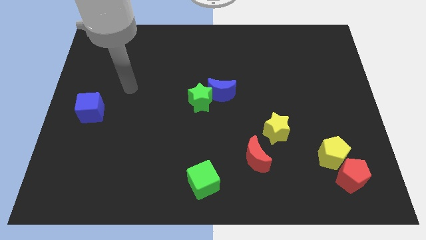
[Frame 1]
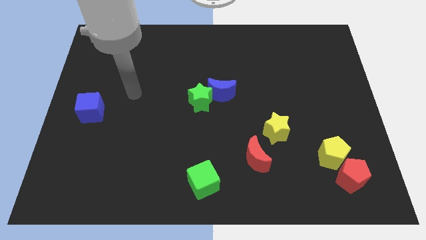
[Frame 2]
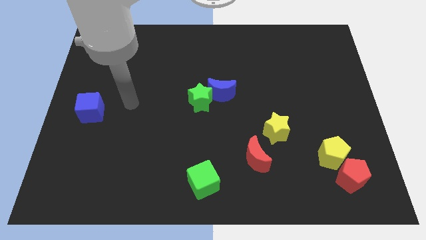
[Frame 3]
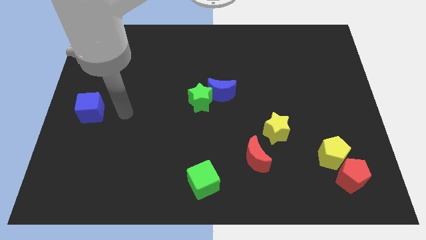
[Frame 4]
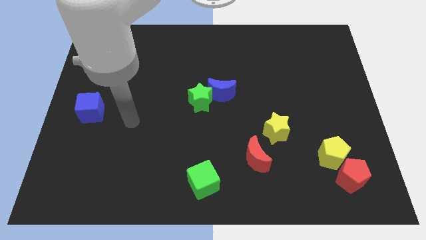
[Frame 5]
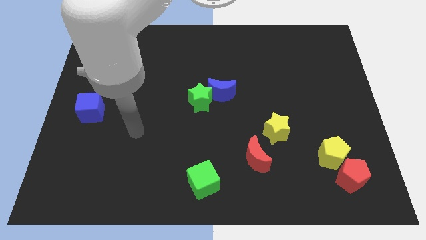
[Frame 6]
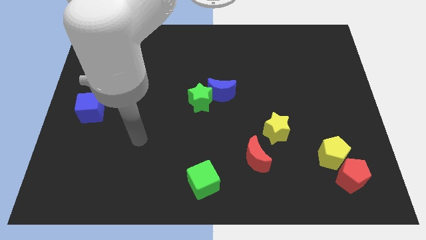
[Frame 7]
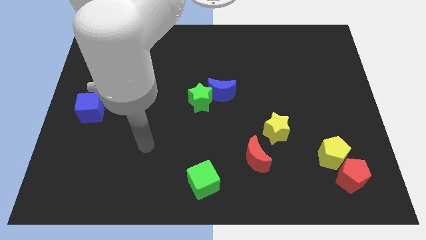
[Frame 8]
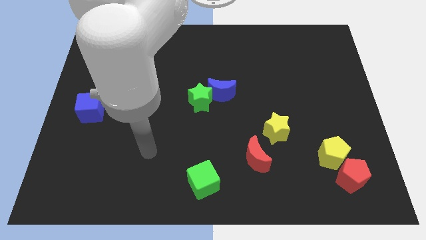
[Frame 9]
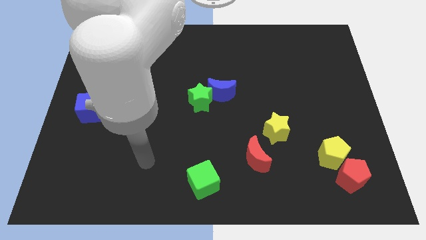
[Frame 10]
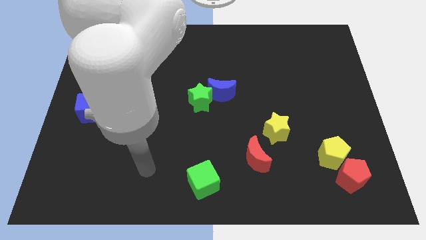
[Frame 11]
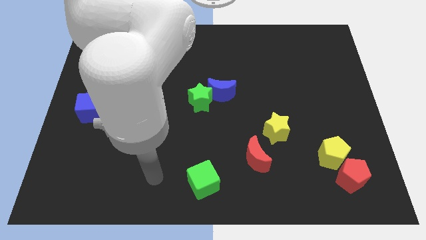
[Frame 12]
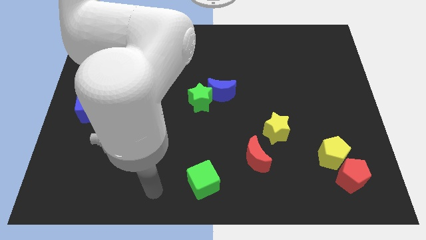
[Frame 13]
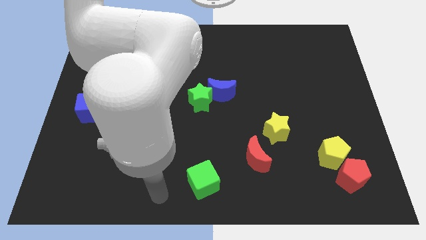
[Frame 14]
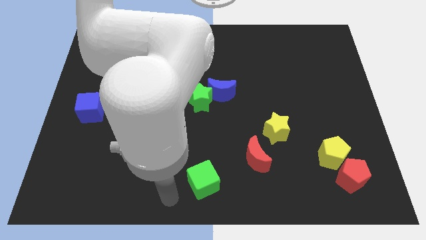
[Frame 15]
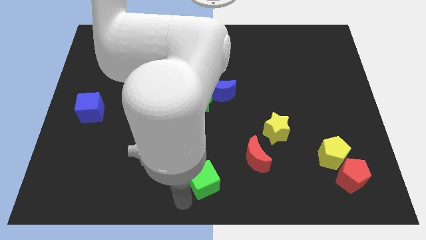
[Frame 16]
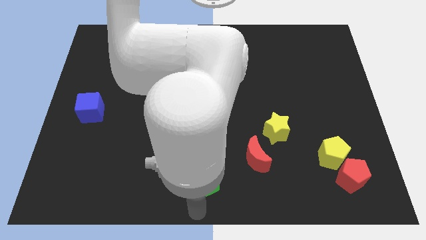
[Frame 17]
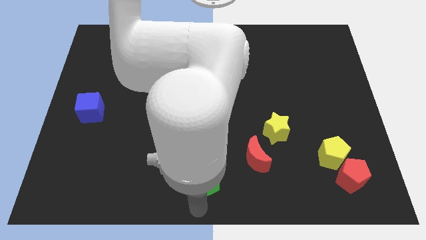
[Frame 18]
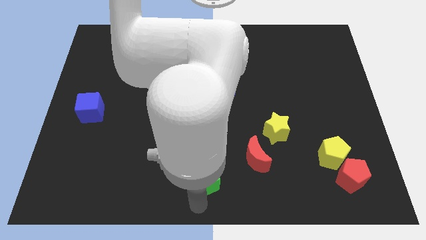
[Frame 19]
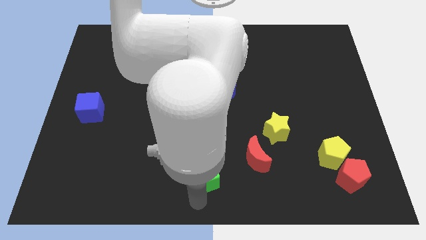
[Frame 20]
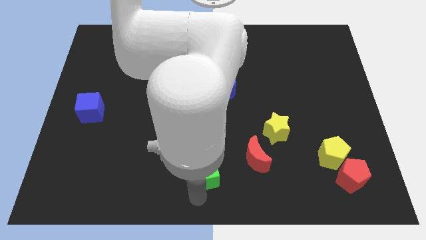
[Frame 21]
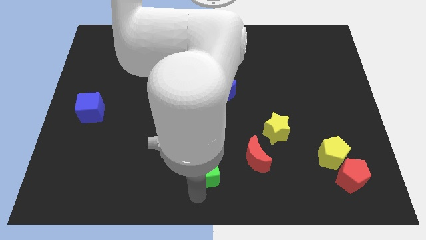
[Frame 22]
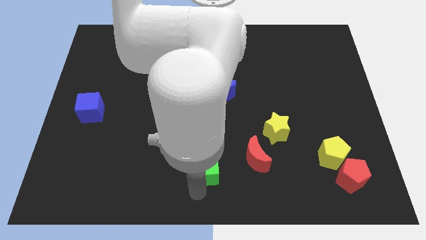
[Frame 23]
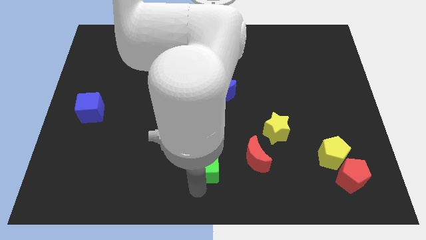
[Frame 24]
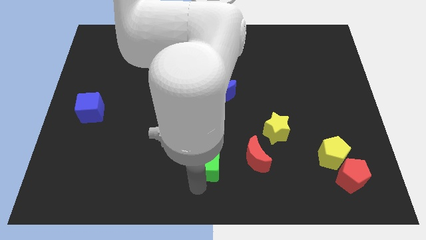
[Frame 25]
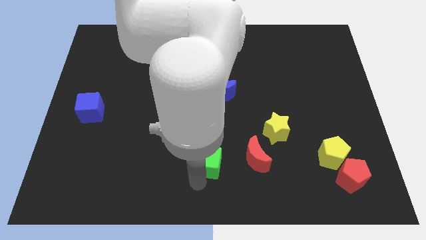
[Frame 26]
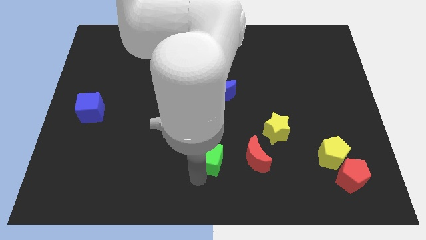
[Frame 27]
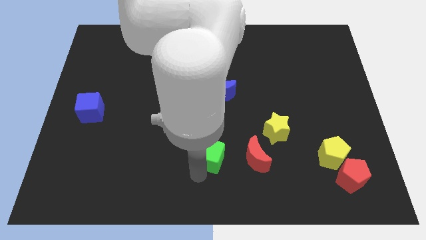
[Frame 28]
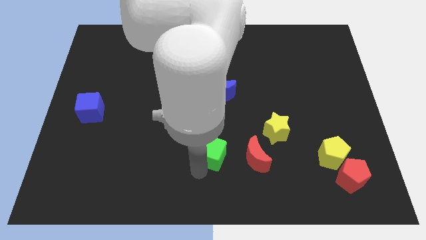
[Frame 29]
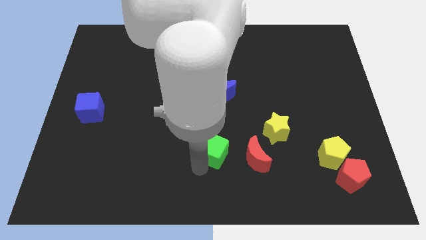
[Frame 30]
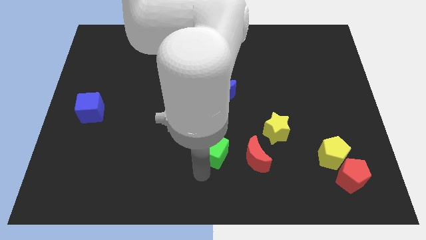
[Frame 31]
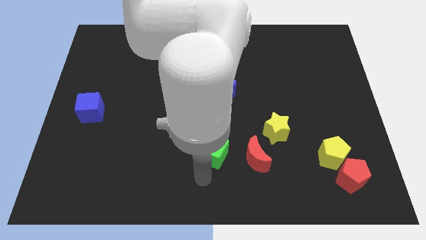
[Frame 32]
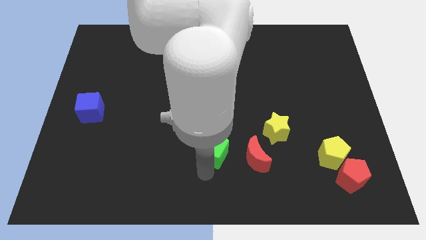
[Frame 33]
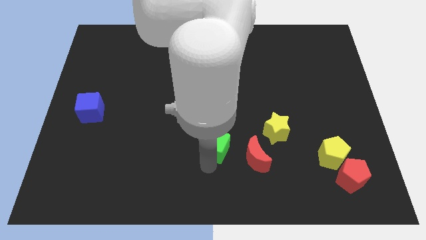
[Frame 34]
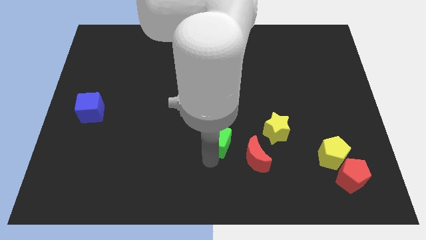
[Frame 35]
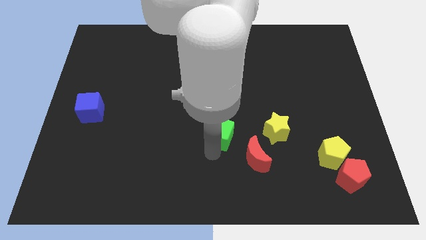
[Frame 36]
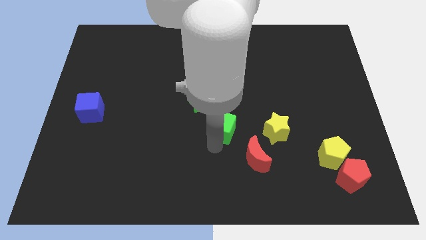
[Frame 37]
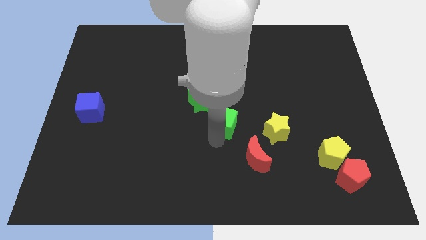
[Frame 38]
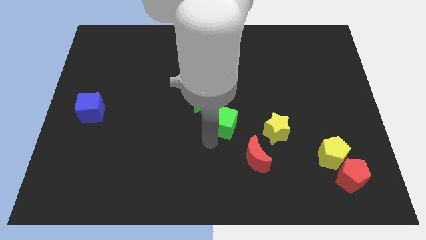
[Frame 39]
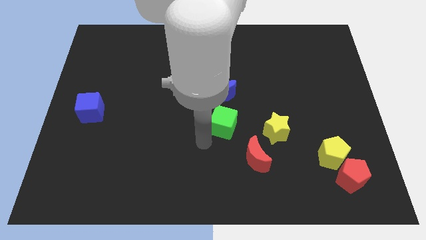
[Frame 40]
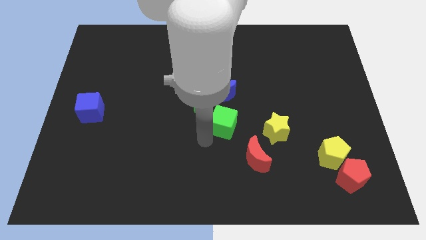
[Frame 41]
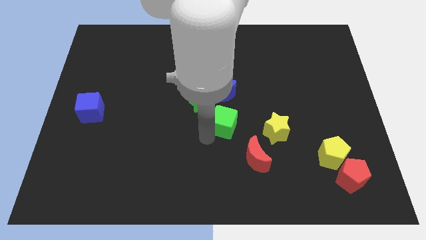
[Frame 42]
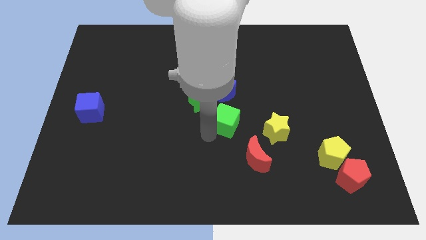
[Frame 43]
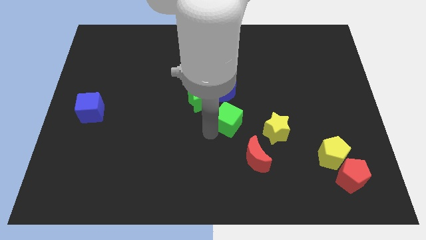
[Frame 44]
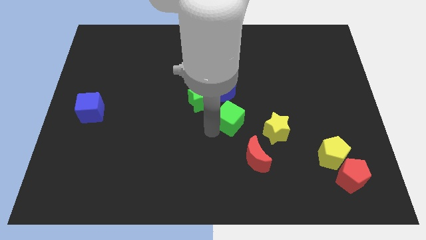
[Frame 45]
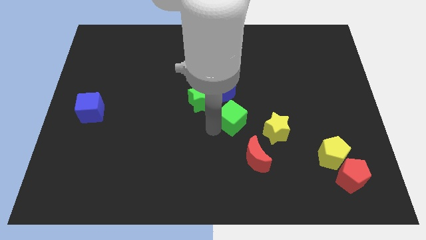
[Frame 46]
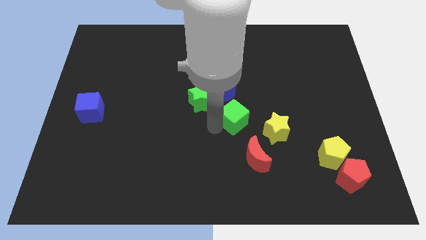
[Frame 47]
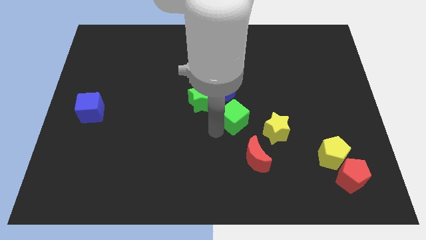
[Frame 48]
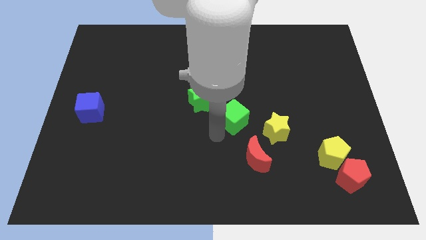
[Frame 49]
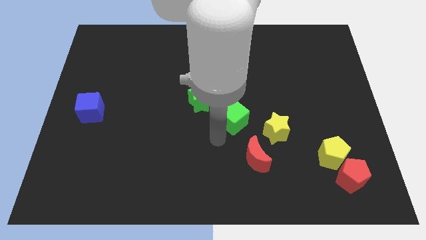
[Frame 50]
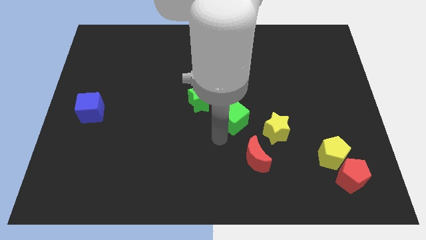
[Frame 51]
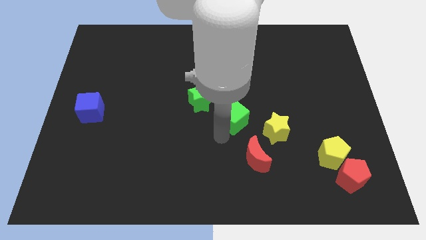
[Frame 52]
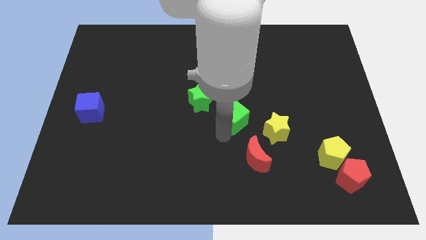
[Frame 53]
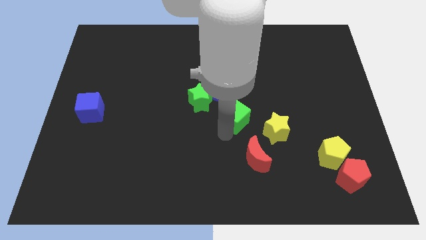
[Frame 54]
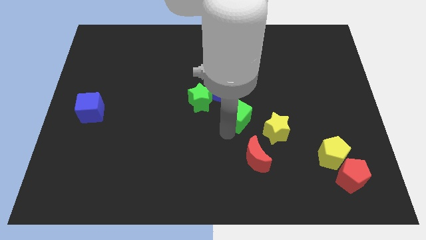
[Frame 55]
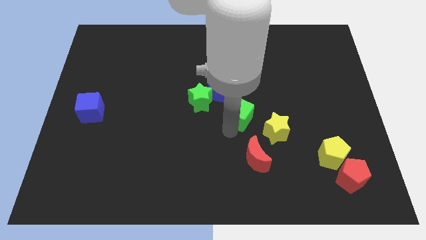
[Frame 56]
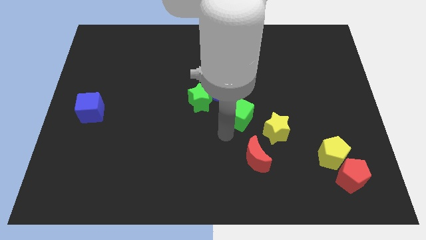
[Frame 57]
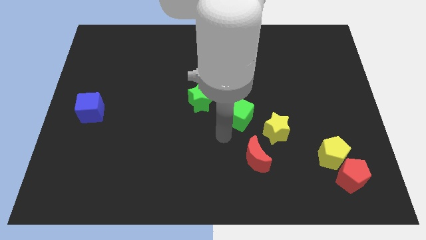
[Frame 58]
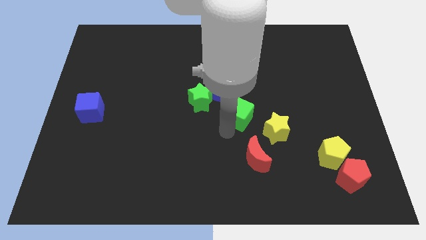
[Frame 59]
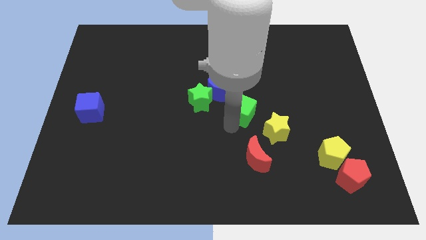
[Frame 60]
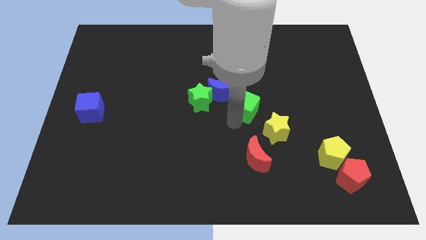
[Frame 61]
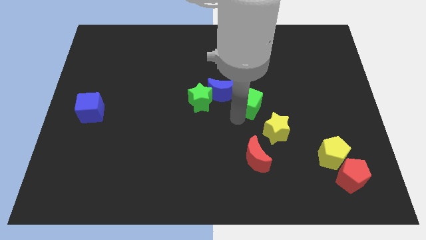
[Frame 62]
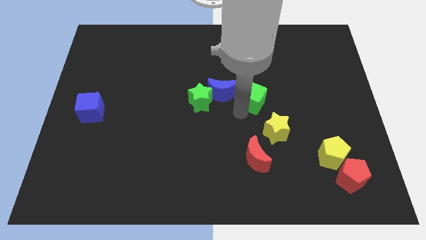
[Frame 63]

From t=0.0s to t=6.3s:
slide the green cube upwards and to the right

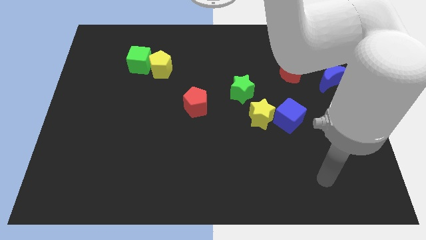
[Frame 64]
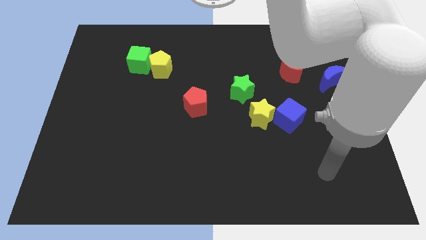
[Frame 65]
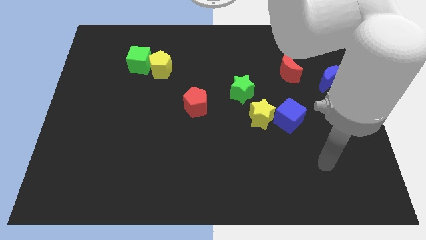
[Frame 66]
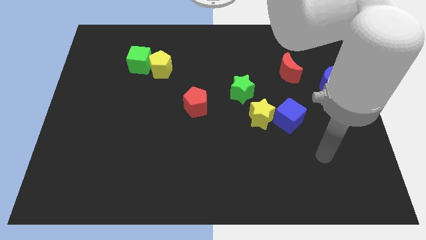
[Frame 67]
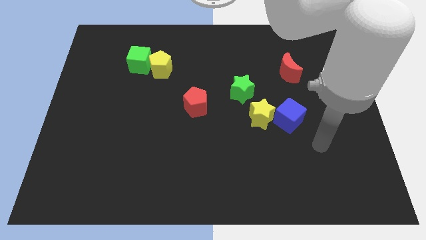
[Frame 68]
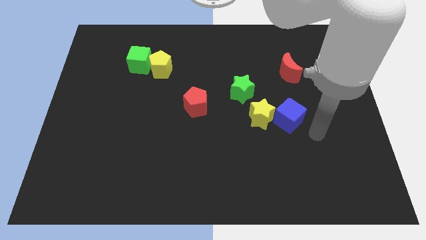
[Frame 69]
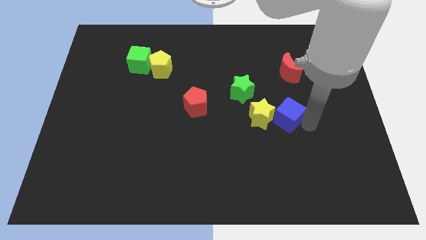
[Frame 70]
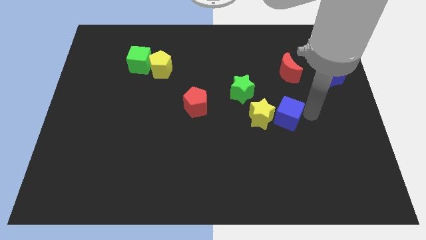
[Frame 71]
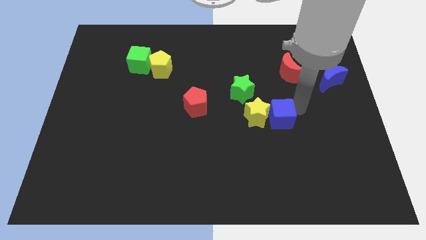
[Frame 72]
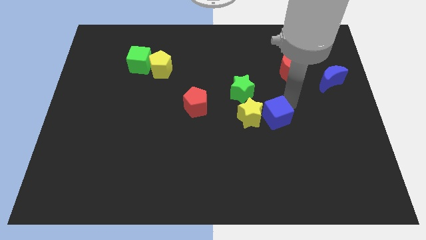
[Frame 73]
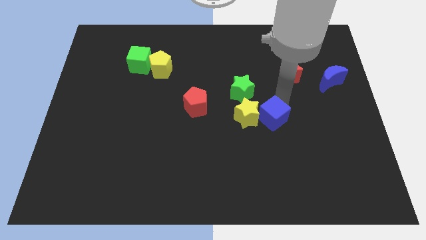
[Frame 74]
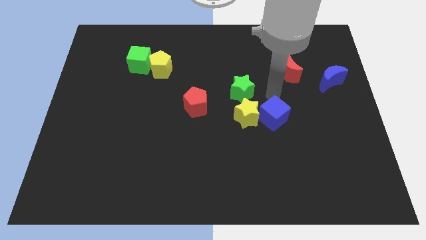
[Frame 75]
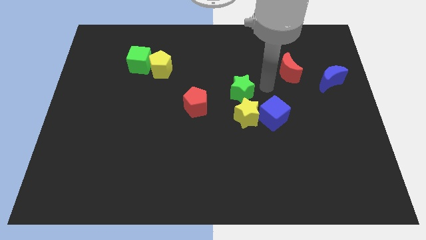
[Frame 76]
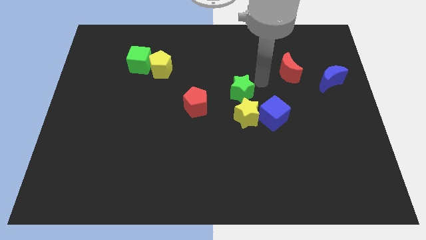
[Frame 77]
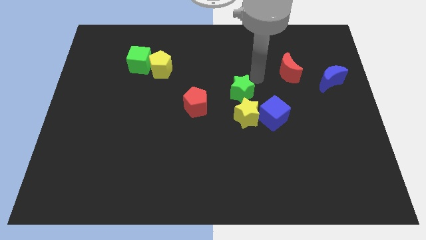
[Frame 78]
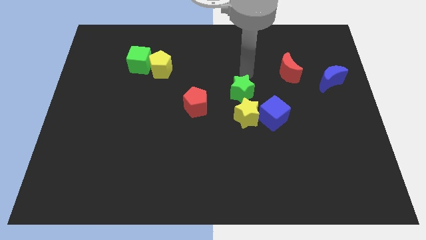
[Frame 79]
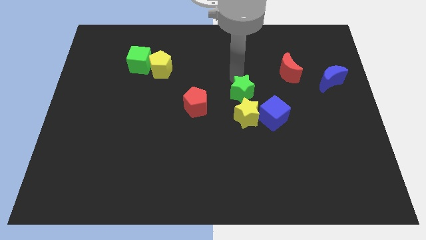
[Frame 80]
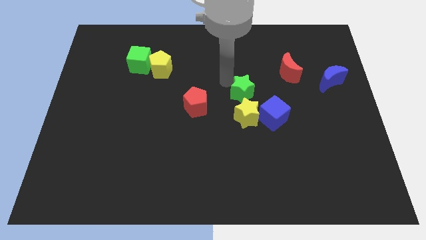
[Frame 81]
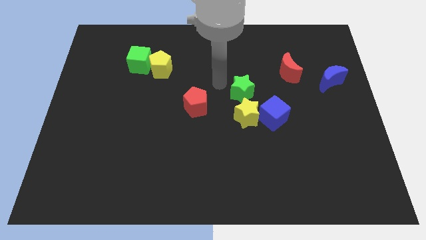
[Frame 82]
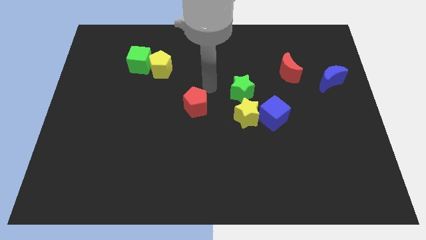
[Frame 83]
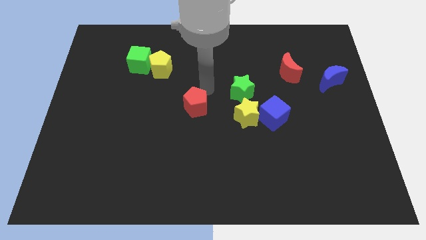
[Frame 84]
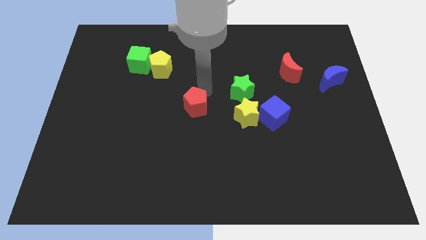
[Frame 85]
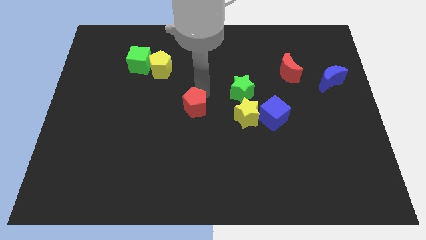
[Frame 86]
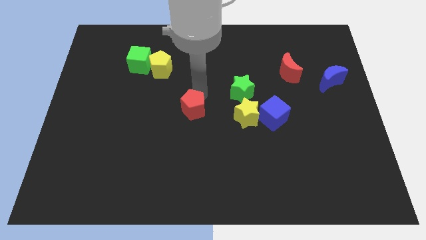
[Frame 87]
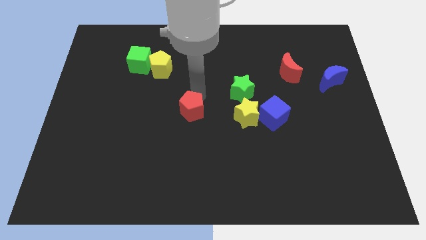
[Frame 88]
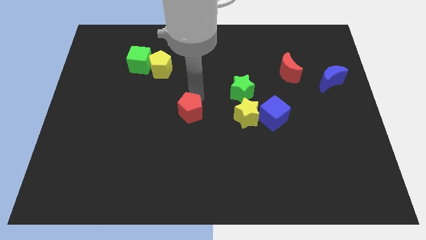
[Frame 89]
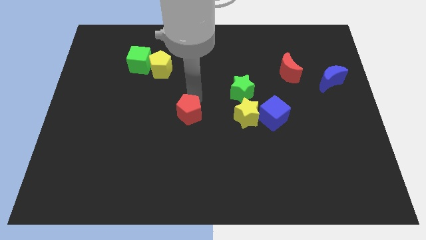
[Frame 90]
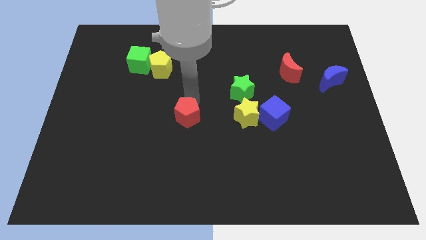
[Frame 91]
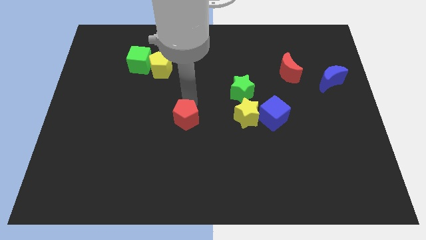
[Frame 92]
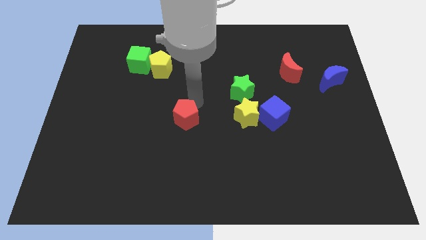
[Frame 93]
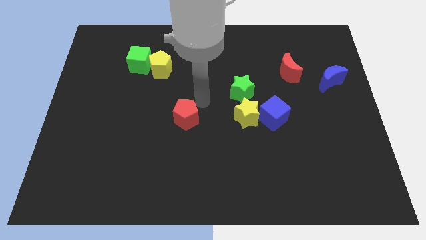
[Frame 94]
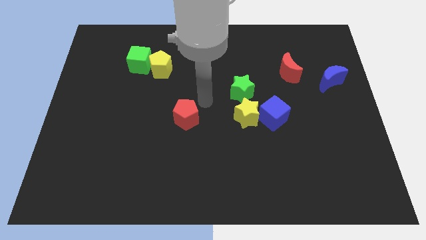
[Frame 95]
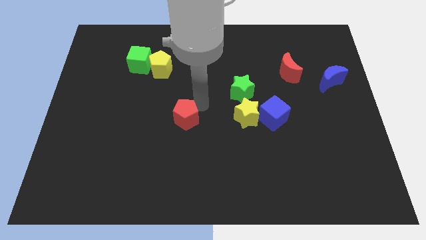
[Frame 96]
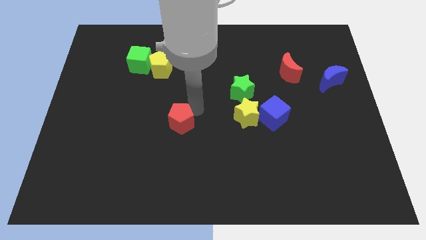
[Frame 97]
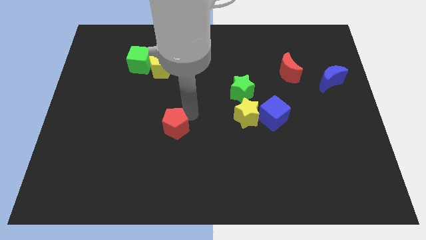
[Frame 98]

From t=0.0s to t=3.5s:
move the red pentagon downwards and to the left a little bit
